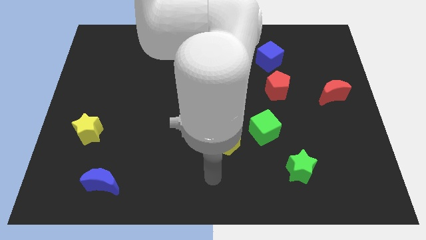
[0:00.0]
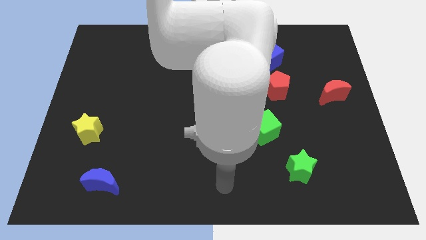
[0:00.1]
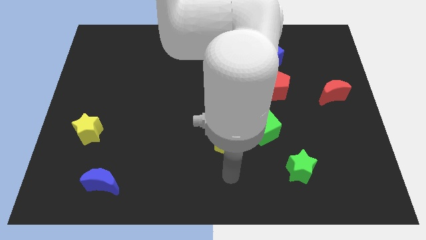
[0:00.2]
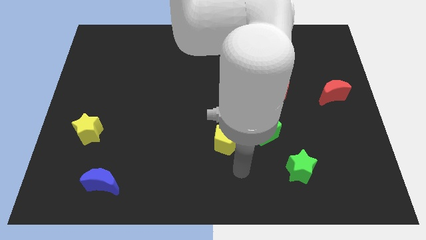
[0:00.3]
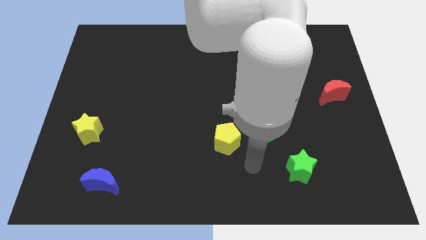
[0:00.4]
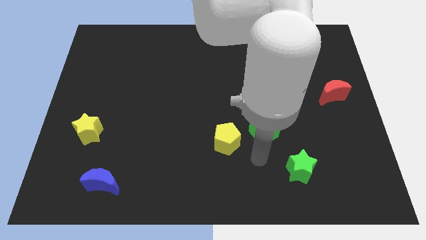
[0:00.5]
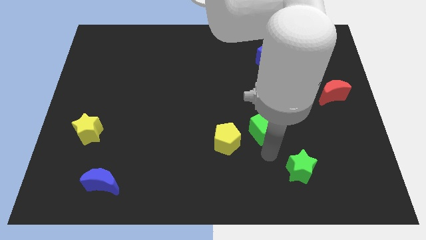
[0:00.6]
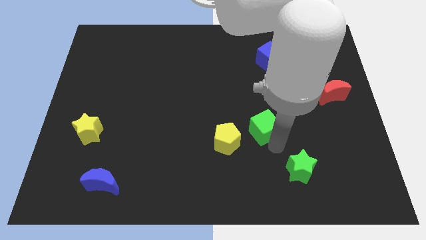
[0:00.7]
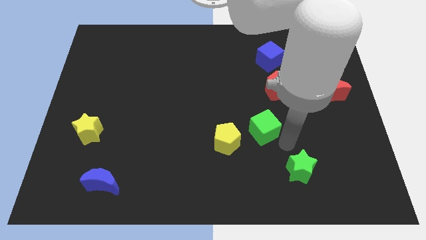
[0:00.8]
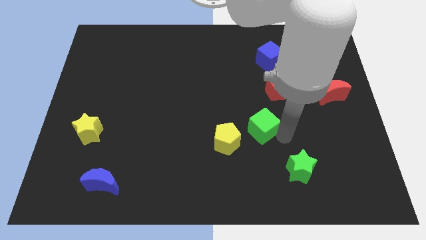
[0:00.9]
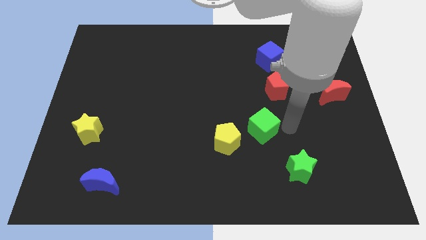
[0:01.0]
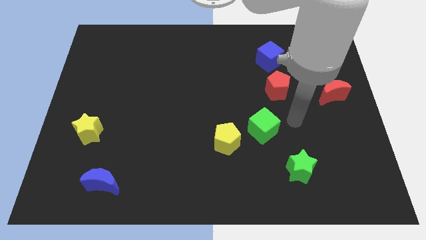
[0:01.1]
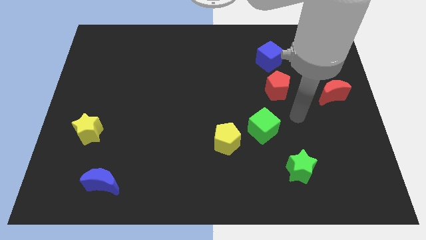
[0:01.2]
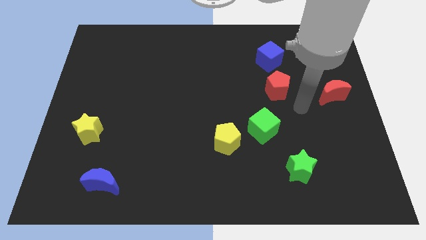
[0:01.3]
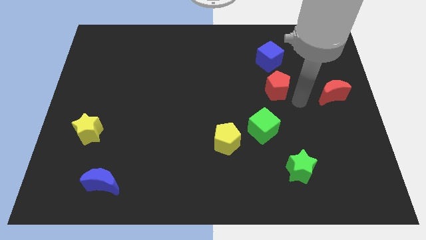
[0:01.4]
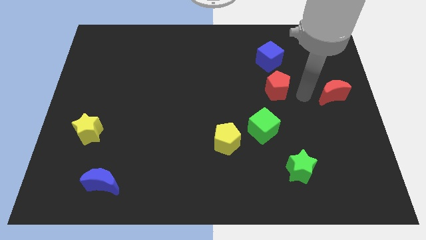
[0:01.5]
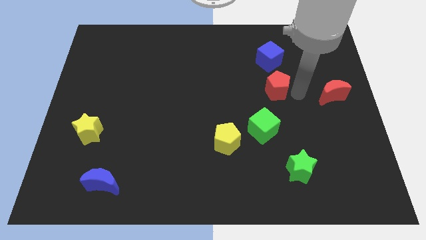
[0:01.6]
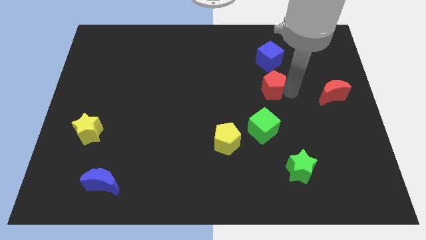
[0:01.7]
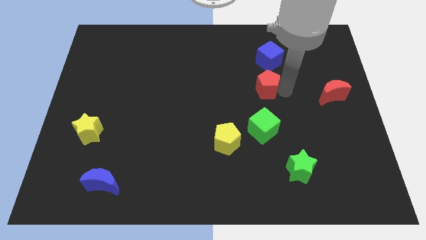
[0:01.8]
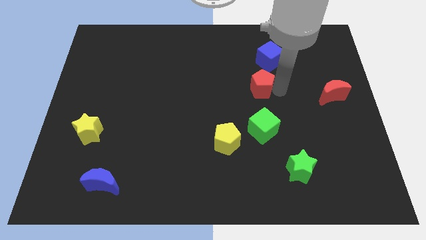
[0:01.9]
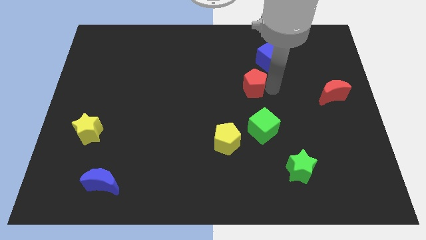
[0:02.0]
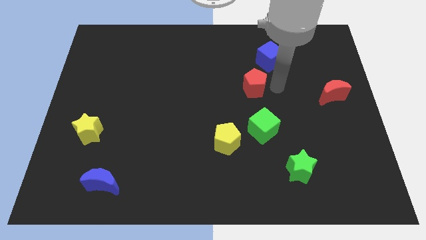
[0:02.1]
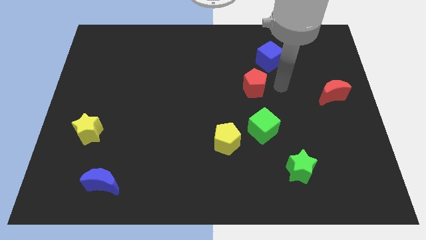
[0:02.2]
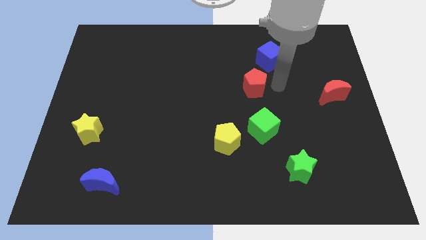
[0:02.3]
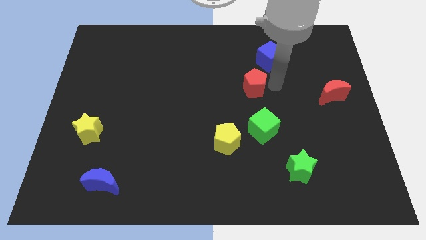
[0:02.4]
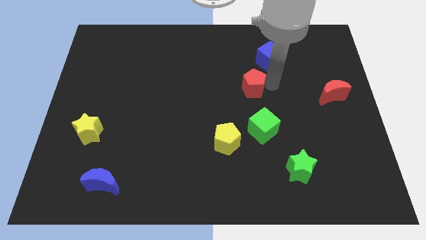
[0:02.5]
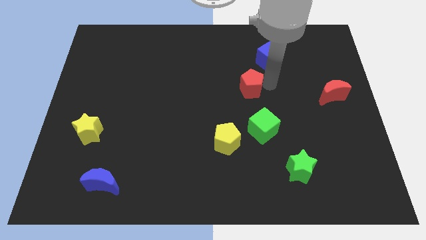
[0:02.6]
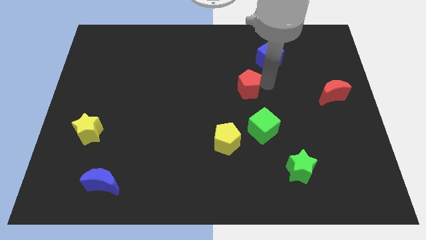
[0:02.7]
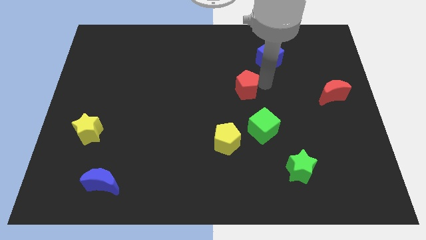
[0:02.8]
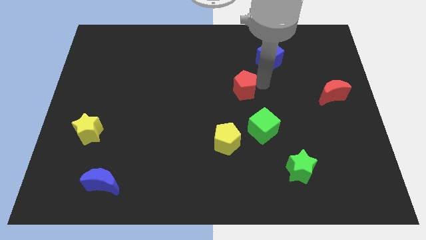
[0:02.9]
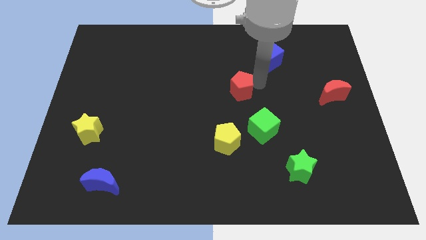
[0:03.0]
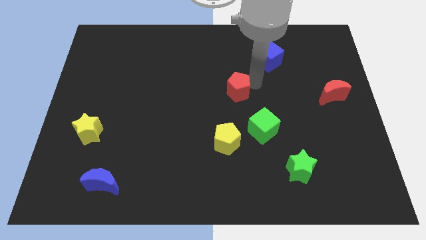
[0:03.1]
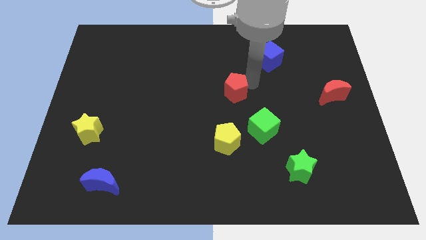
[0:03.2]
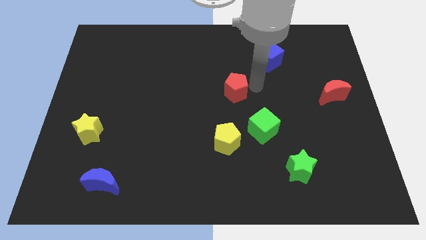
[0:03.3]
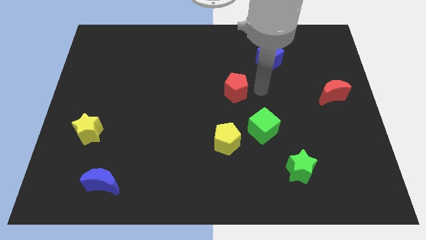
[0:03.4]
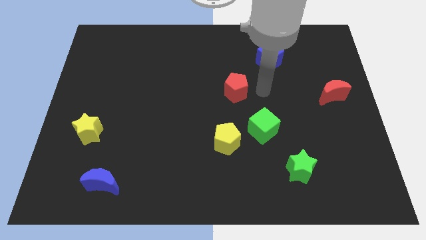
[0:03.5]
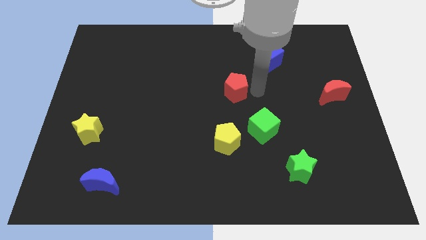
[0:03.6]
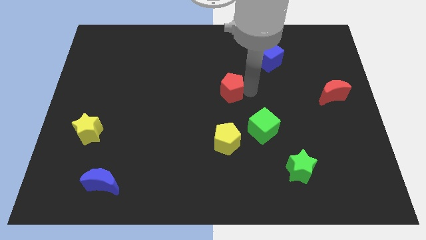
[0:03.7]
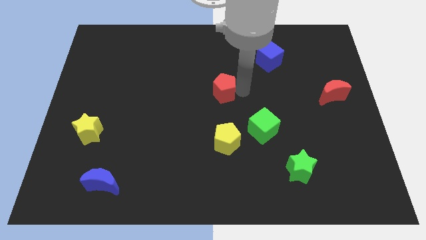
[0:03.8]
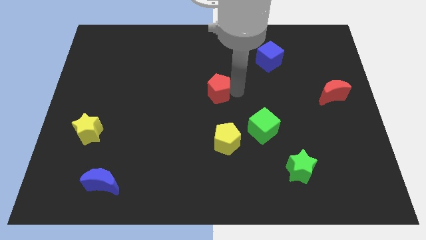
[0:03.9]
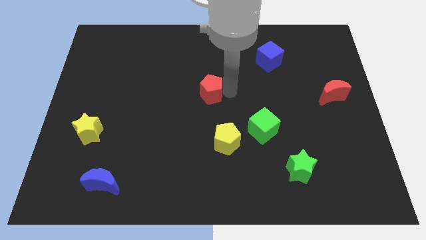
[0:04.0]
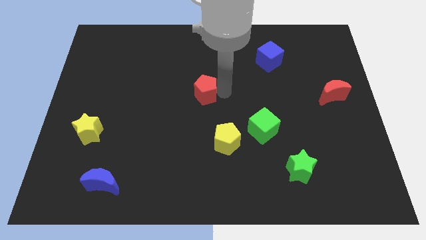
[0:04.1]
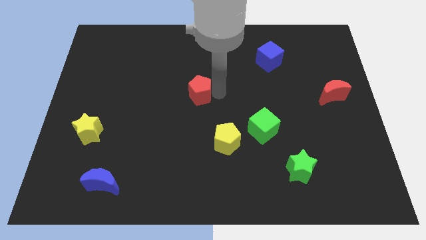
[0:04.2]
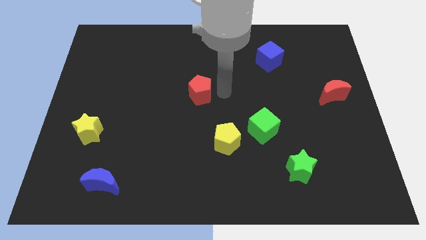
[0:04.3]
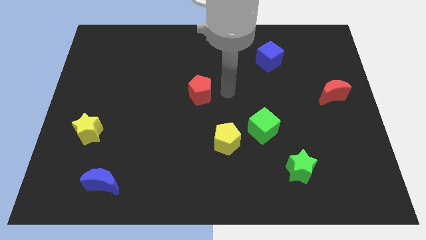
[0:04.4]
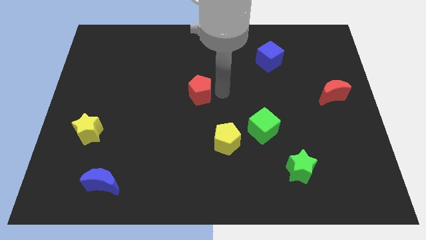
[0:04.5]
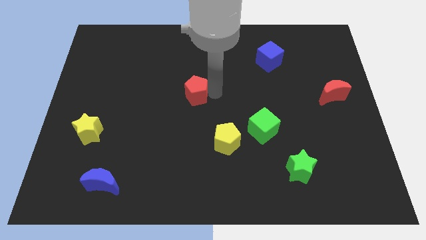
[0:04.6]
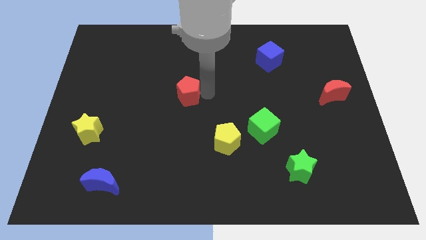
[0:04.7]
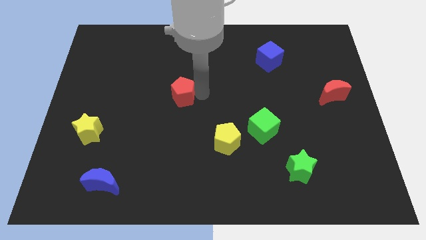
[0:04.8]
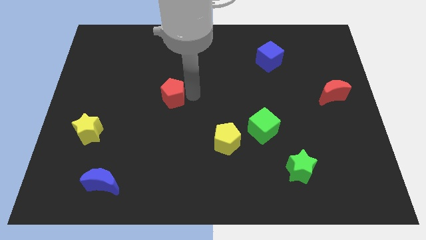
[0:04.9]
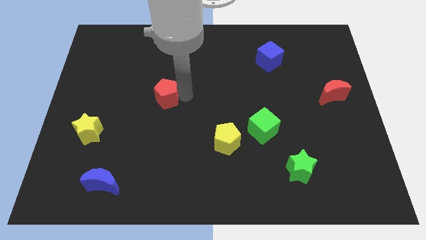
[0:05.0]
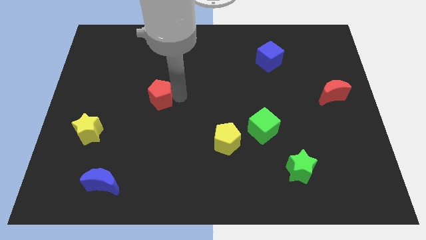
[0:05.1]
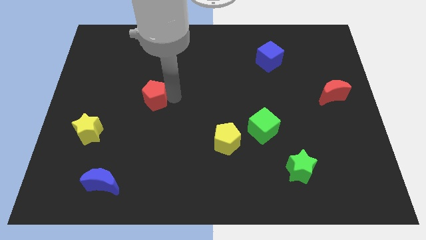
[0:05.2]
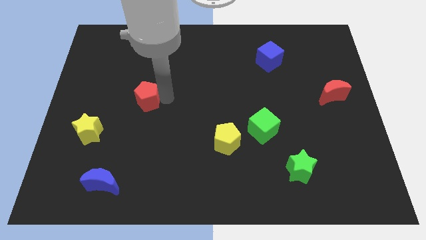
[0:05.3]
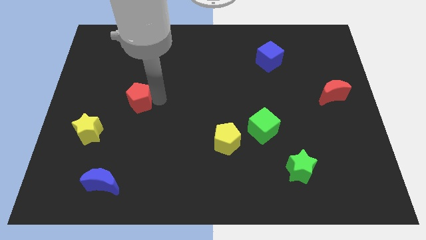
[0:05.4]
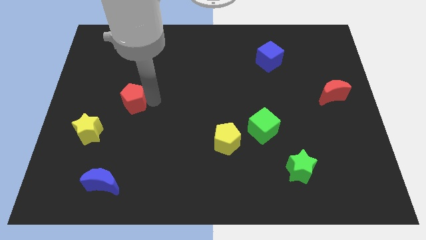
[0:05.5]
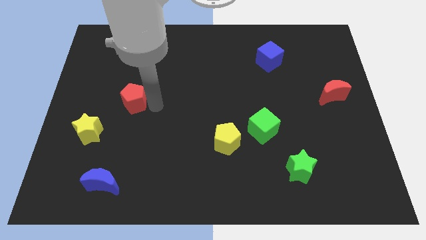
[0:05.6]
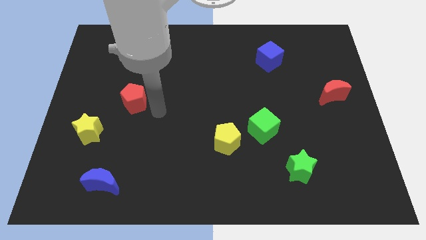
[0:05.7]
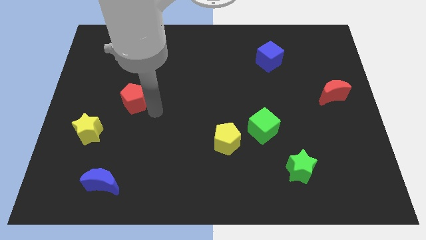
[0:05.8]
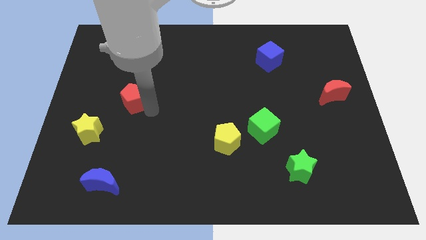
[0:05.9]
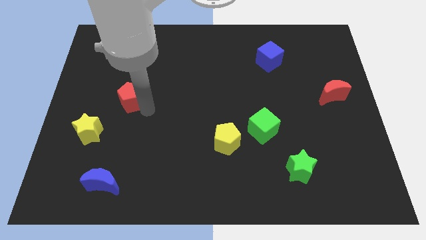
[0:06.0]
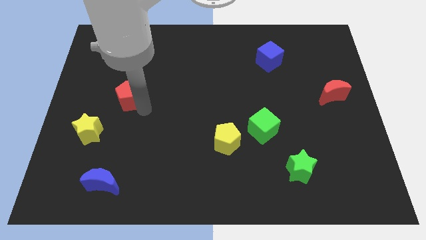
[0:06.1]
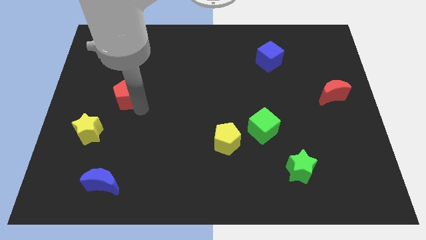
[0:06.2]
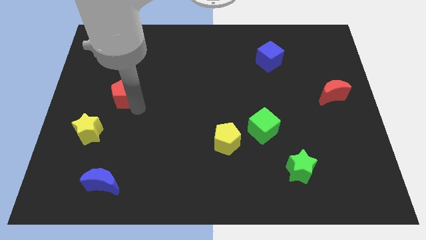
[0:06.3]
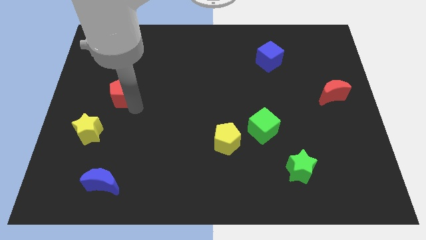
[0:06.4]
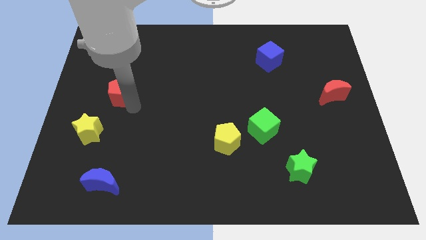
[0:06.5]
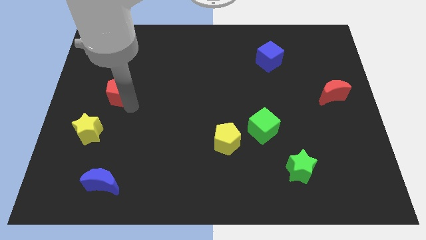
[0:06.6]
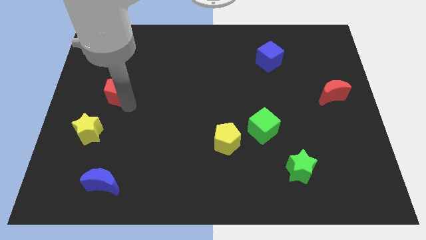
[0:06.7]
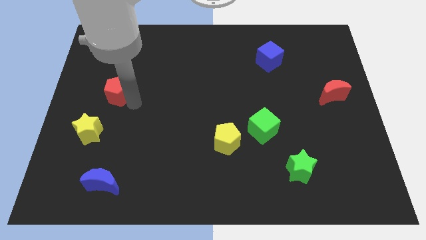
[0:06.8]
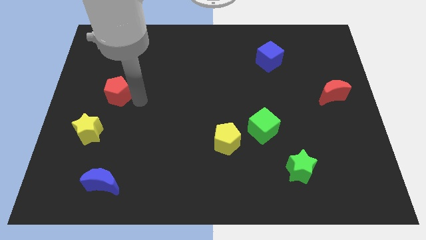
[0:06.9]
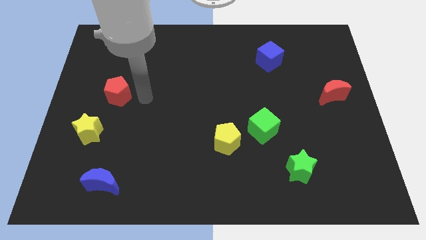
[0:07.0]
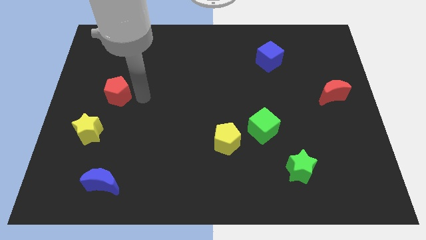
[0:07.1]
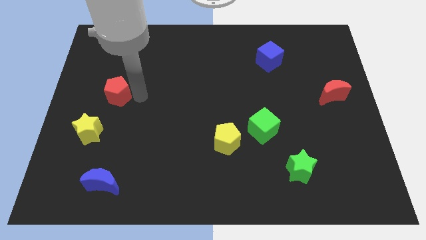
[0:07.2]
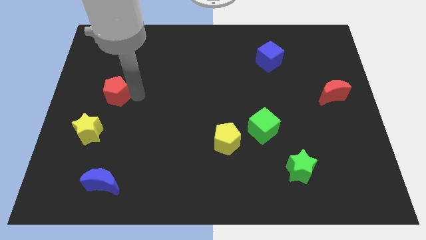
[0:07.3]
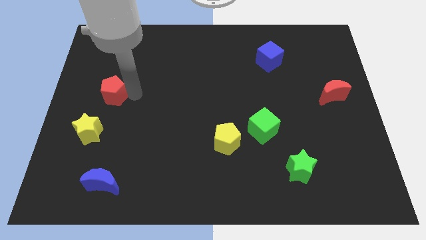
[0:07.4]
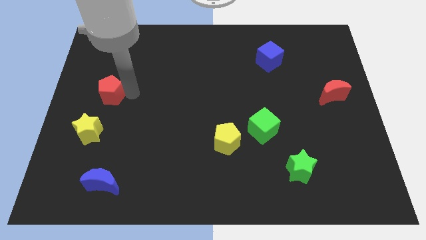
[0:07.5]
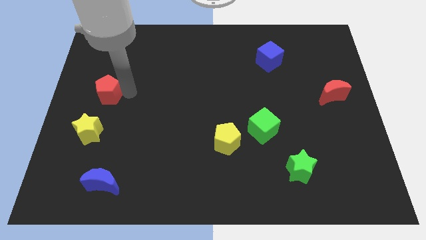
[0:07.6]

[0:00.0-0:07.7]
slide the red pentagon to the left side
